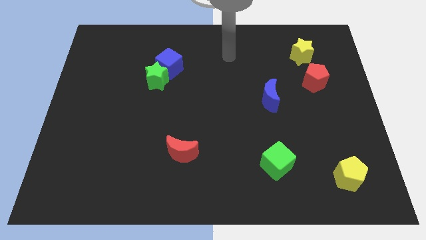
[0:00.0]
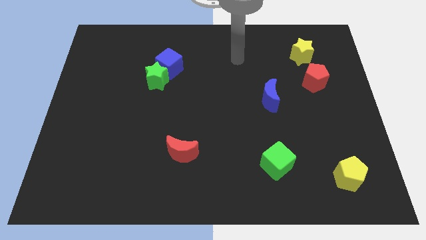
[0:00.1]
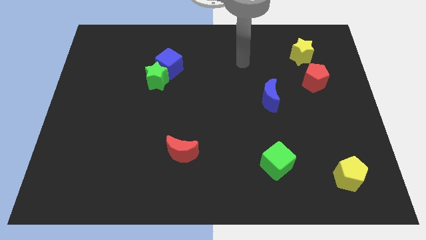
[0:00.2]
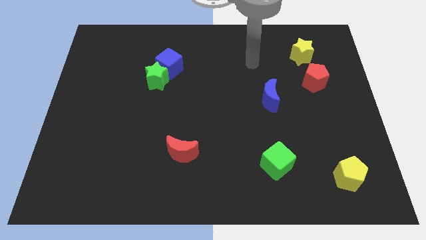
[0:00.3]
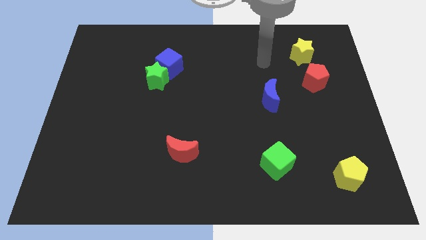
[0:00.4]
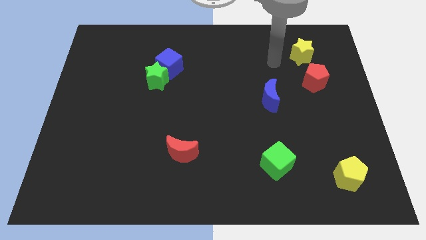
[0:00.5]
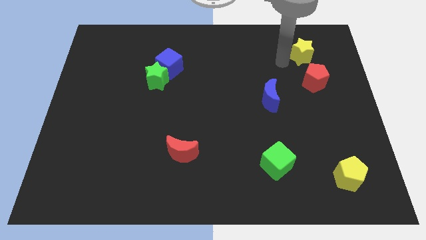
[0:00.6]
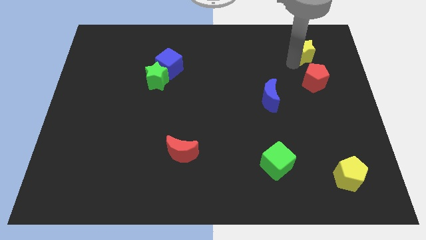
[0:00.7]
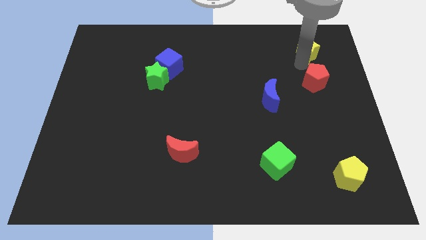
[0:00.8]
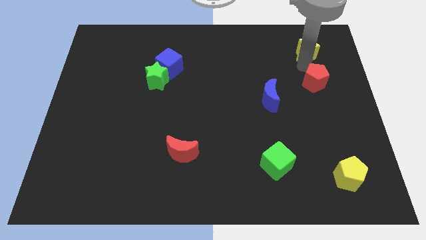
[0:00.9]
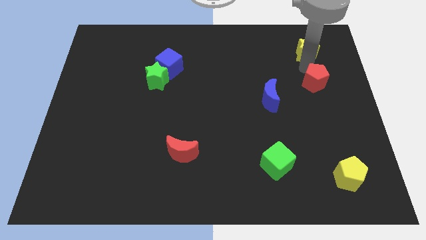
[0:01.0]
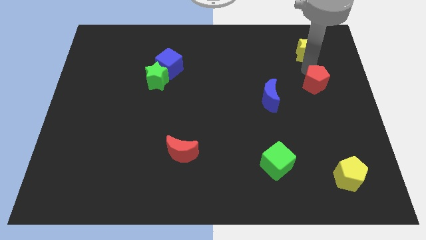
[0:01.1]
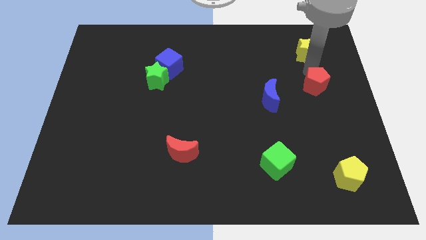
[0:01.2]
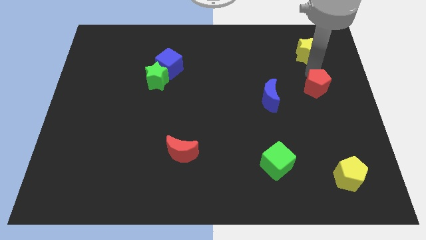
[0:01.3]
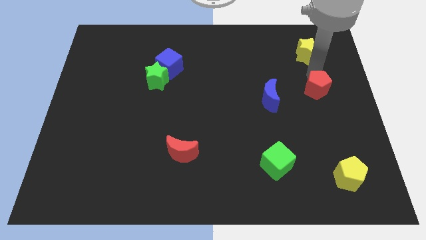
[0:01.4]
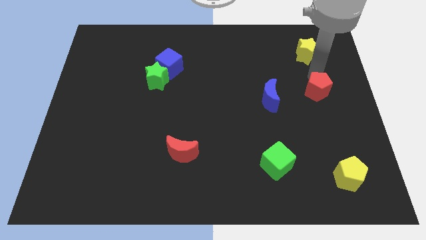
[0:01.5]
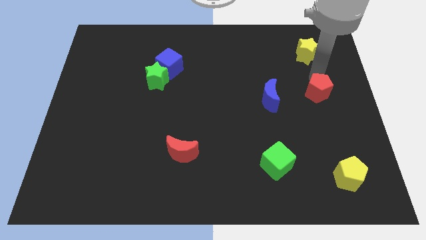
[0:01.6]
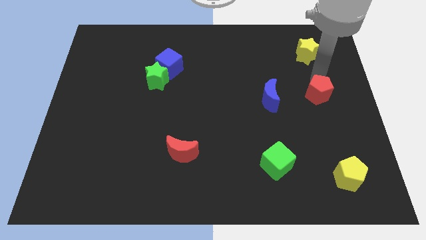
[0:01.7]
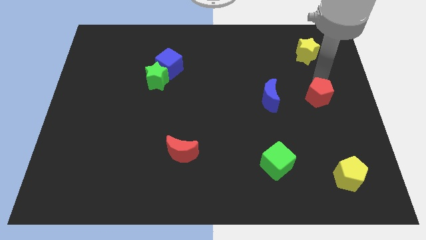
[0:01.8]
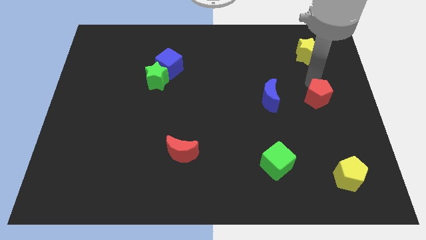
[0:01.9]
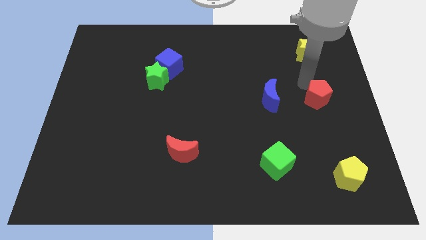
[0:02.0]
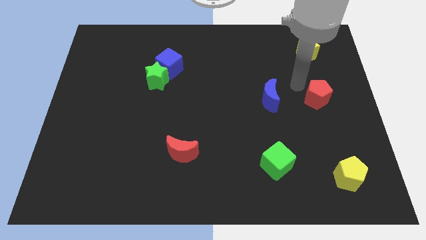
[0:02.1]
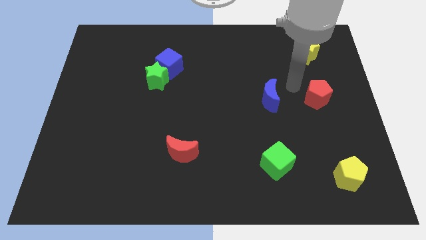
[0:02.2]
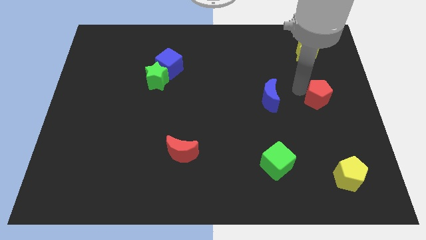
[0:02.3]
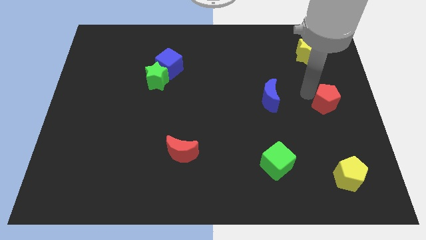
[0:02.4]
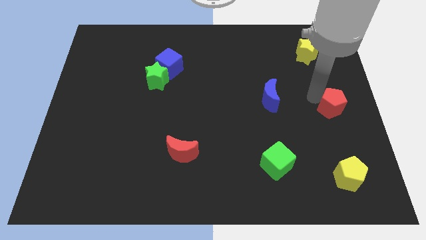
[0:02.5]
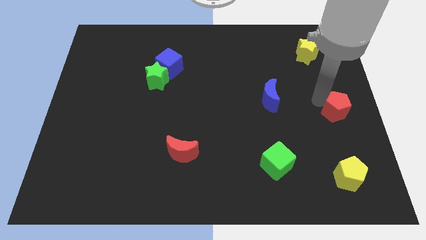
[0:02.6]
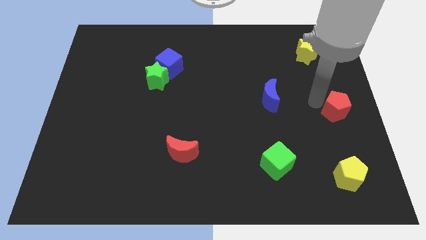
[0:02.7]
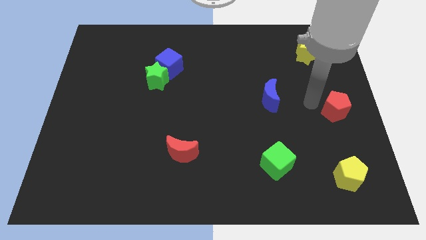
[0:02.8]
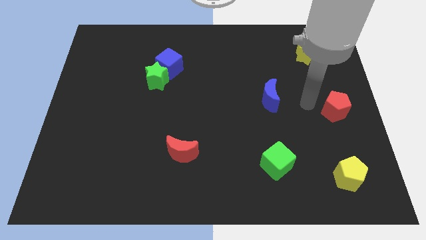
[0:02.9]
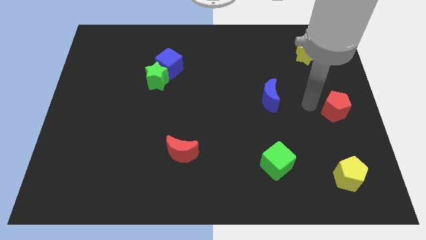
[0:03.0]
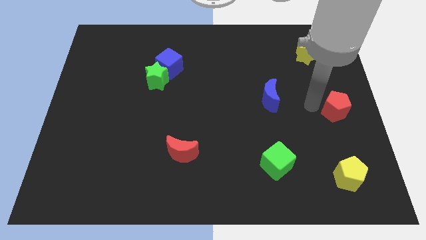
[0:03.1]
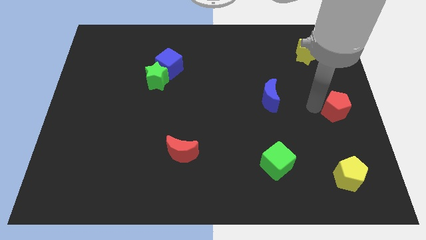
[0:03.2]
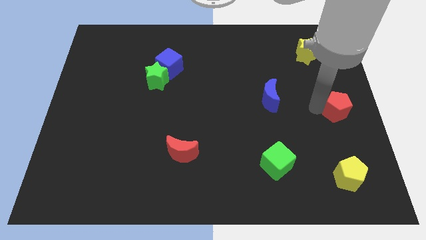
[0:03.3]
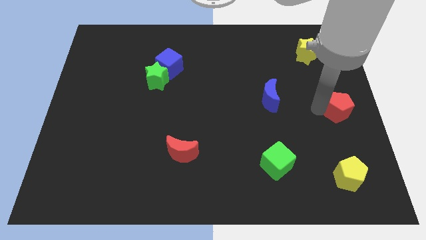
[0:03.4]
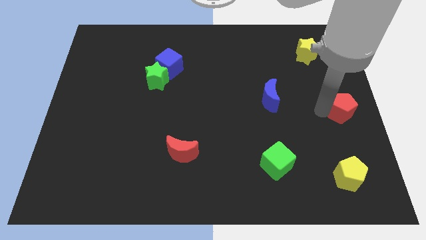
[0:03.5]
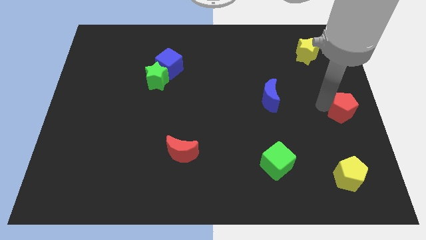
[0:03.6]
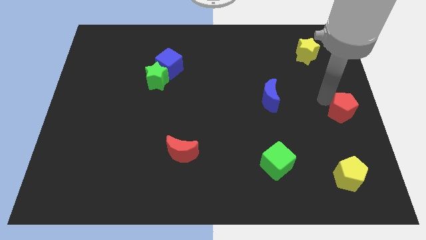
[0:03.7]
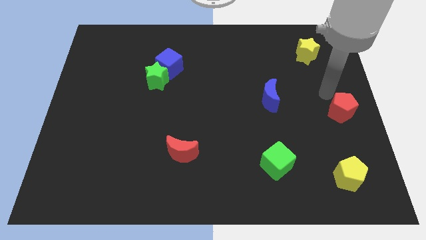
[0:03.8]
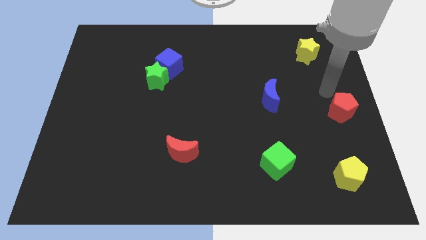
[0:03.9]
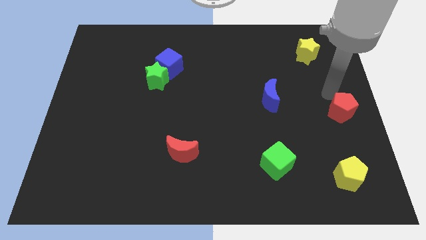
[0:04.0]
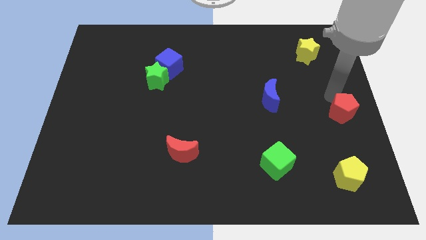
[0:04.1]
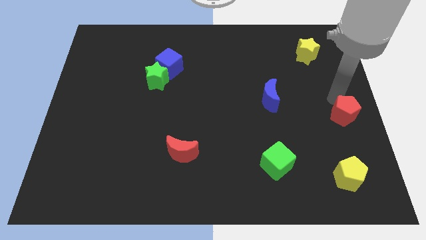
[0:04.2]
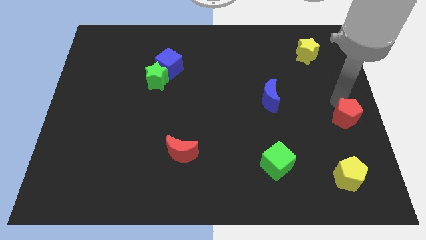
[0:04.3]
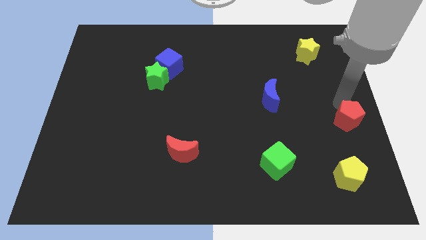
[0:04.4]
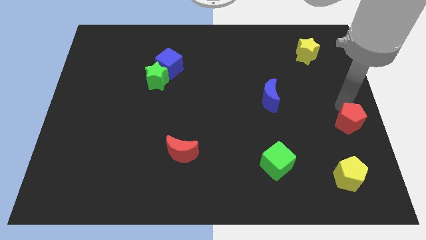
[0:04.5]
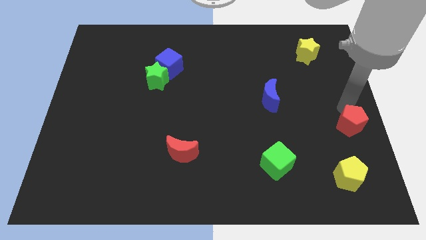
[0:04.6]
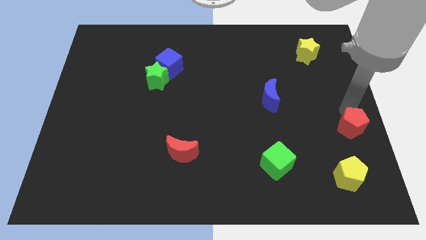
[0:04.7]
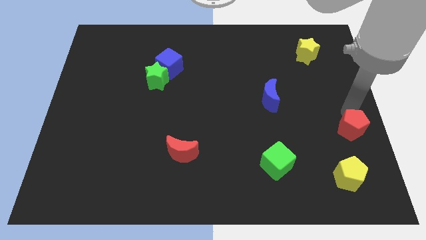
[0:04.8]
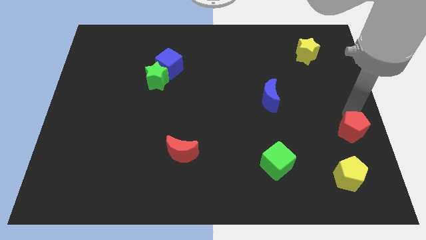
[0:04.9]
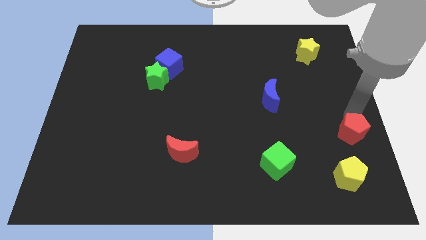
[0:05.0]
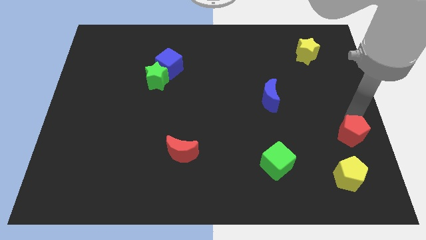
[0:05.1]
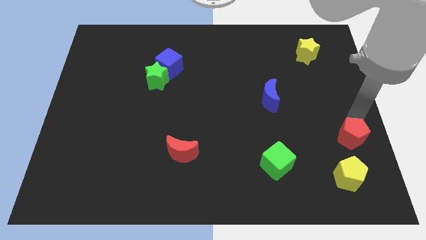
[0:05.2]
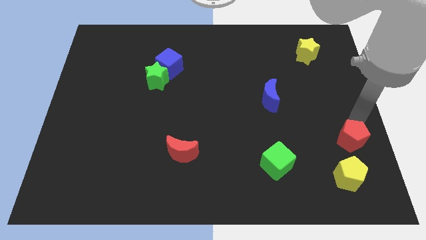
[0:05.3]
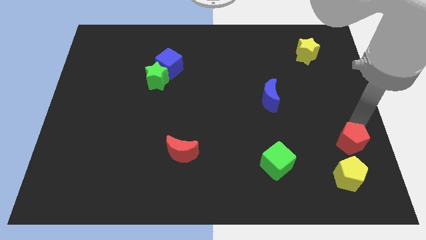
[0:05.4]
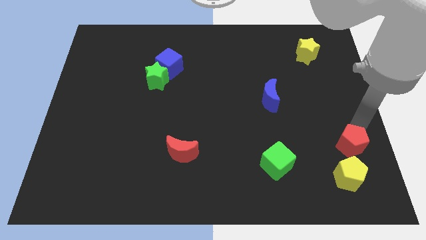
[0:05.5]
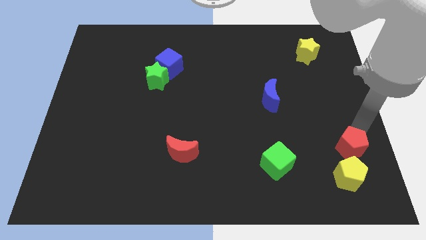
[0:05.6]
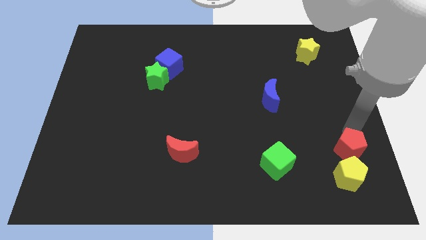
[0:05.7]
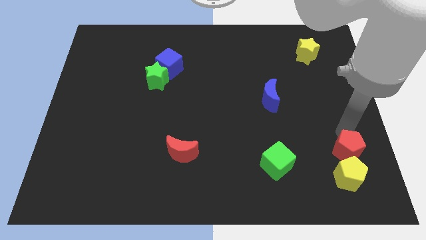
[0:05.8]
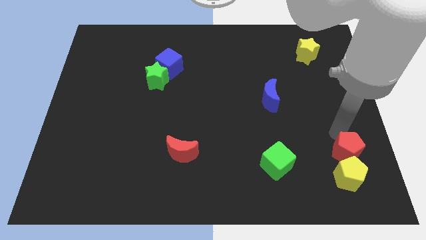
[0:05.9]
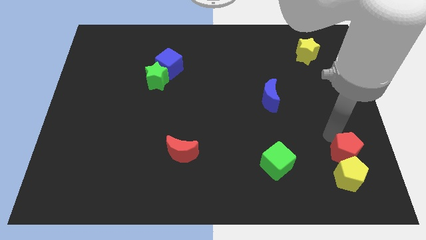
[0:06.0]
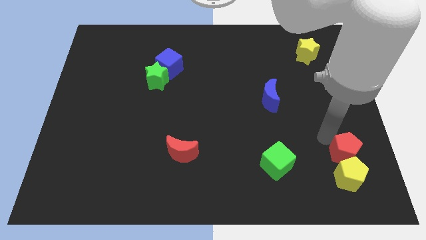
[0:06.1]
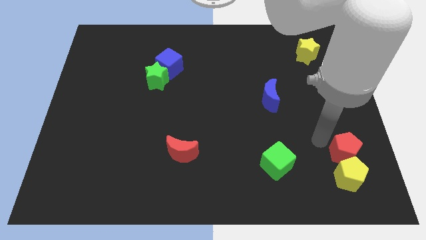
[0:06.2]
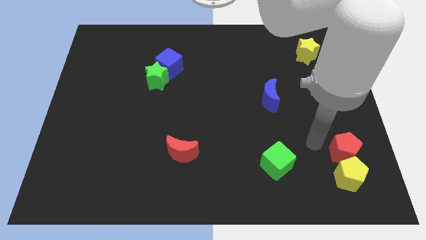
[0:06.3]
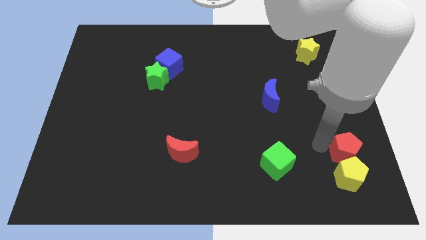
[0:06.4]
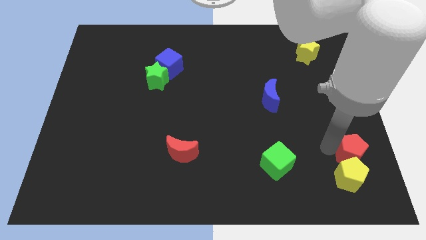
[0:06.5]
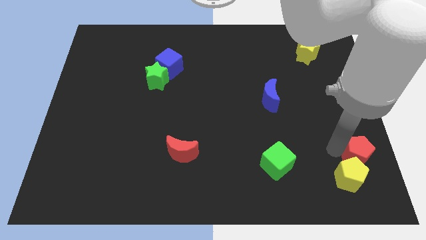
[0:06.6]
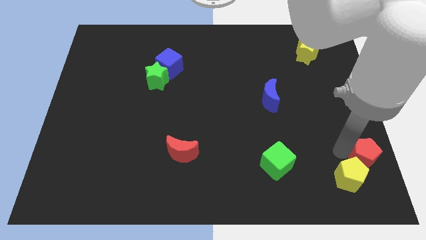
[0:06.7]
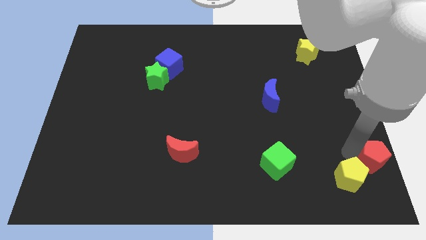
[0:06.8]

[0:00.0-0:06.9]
push the red pentagon to the bottom right
